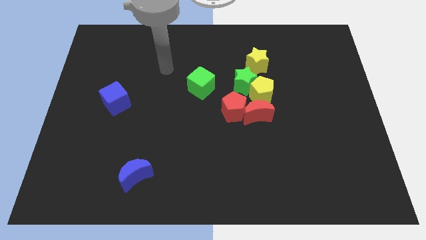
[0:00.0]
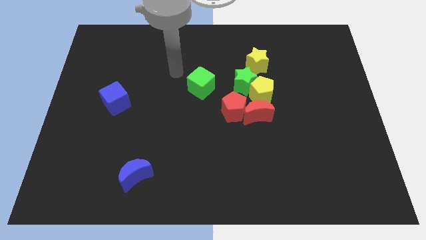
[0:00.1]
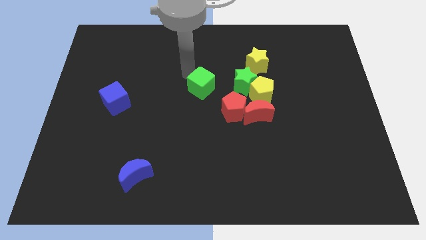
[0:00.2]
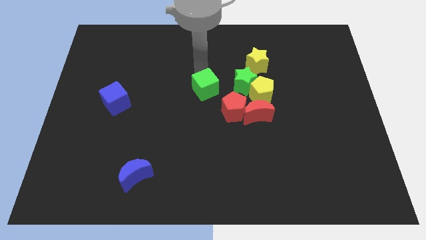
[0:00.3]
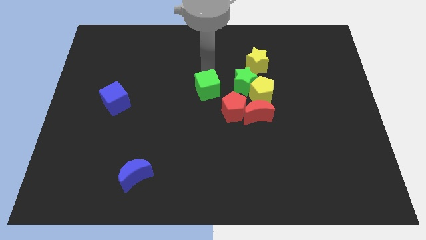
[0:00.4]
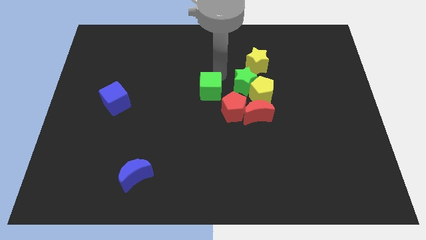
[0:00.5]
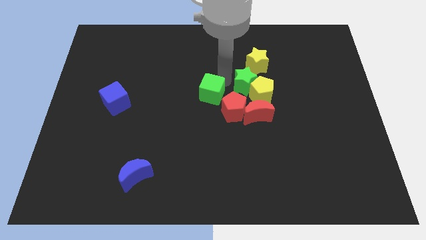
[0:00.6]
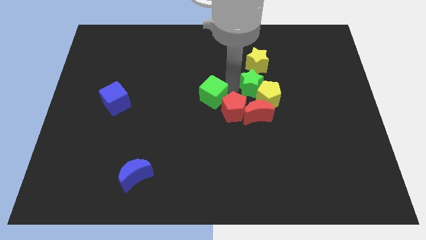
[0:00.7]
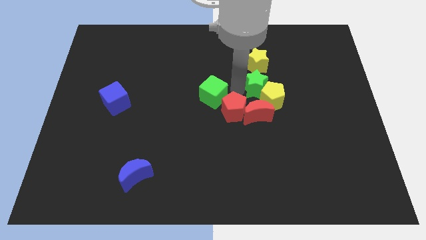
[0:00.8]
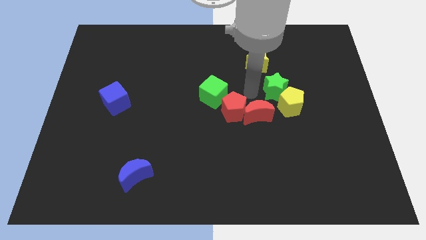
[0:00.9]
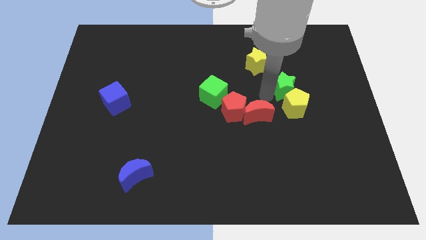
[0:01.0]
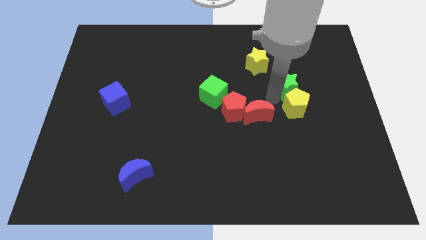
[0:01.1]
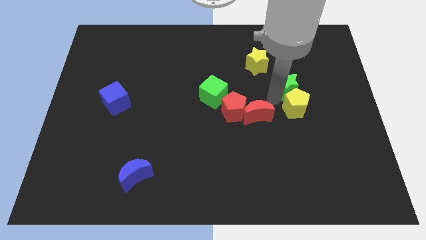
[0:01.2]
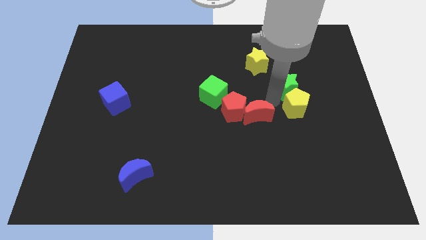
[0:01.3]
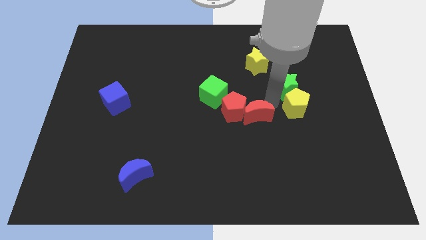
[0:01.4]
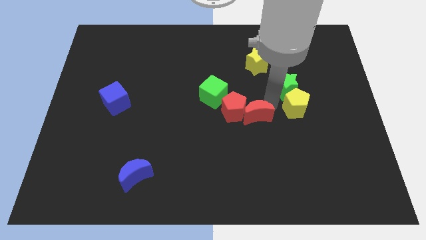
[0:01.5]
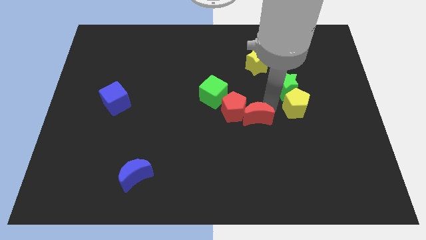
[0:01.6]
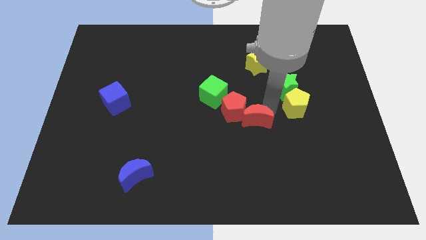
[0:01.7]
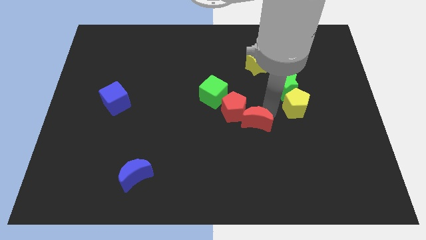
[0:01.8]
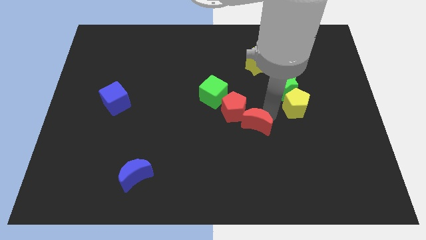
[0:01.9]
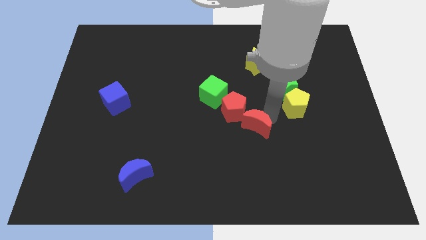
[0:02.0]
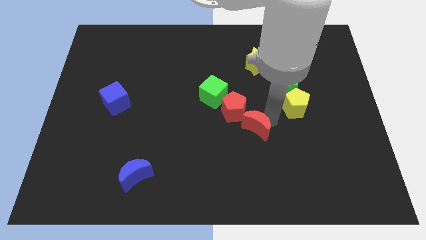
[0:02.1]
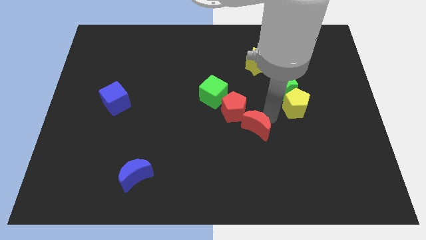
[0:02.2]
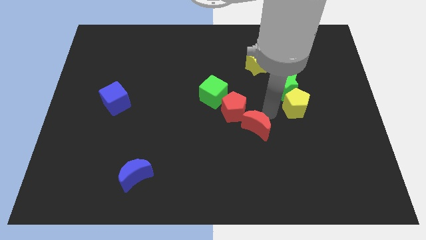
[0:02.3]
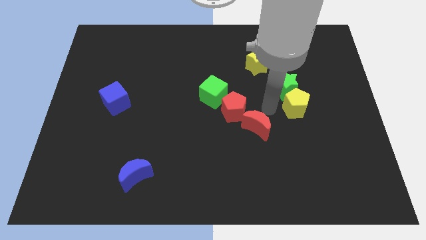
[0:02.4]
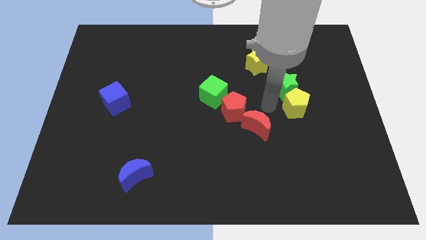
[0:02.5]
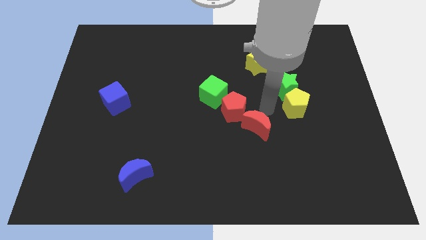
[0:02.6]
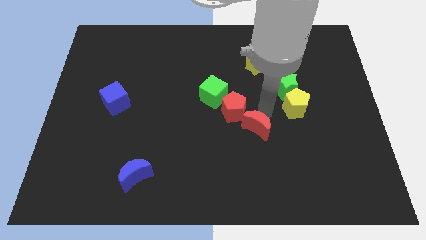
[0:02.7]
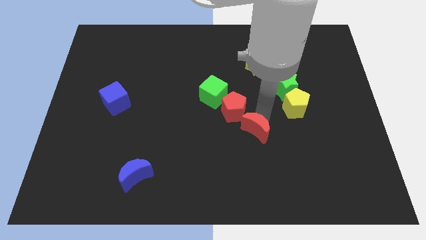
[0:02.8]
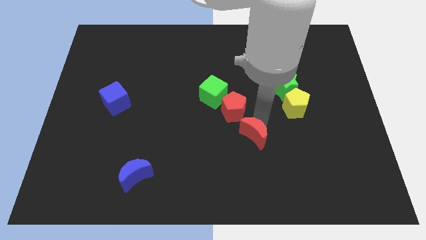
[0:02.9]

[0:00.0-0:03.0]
separate the red moon from the clump

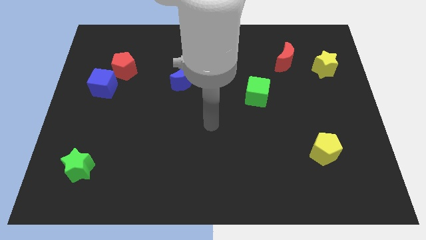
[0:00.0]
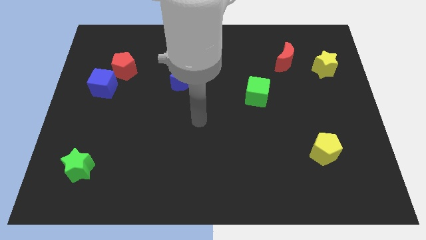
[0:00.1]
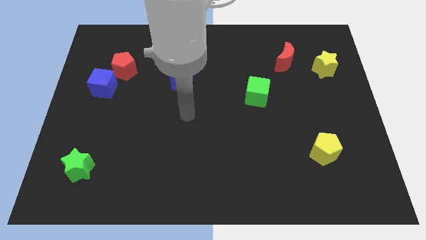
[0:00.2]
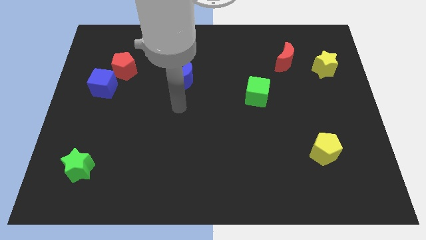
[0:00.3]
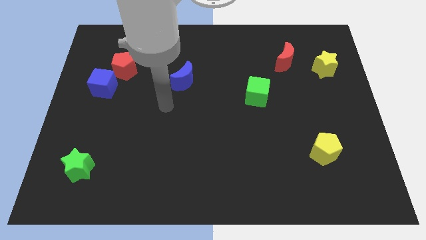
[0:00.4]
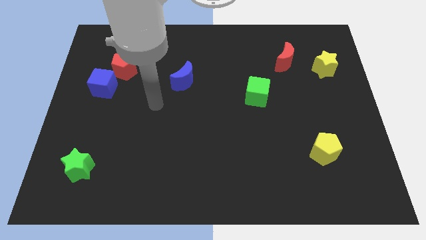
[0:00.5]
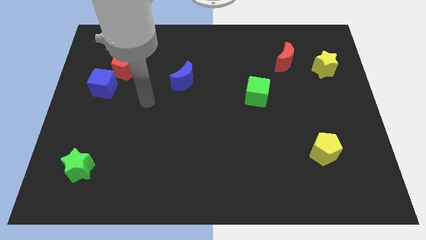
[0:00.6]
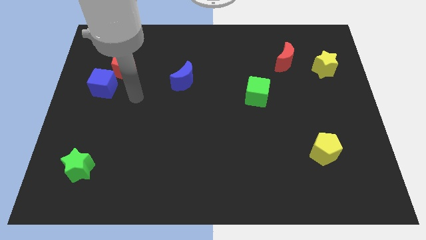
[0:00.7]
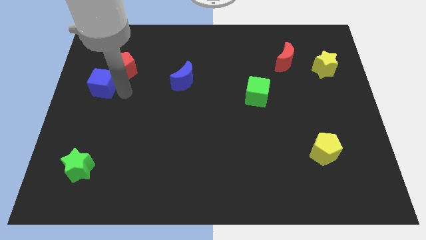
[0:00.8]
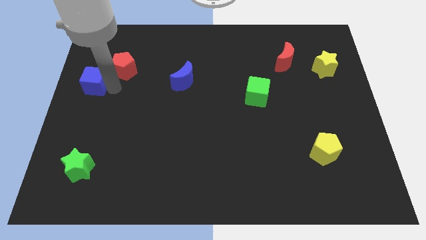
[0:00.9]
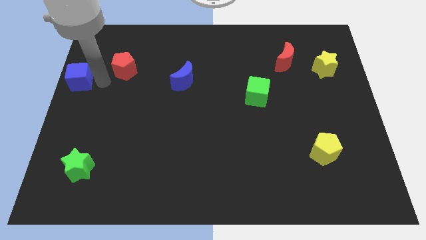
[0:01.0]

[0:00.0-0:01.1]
separate the red pentagon from the blue cube

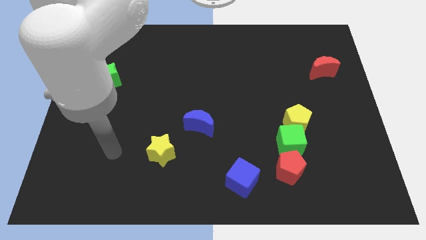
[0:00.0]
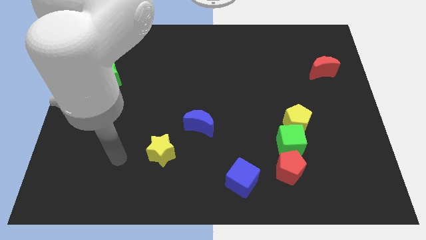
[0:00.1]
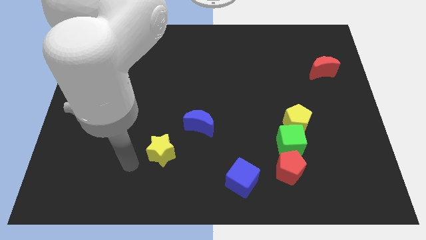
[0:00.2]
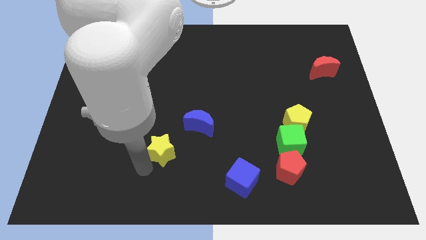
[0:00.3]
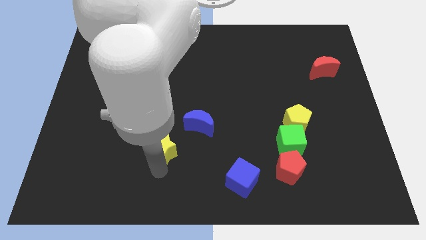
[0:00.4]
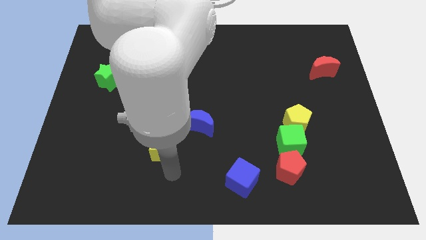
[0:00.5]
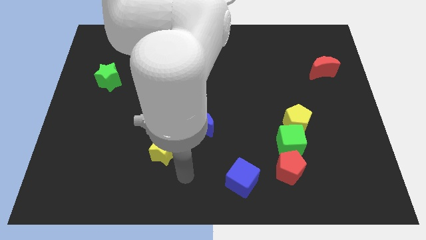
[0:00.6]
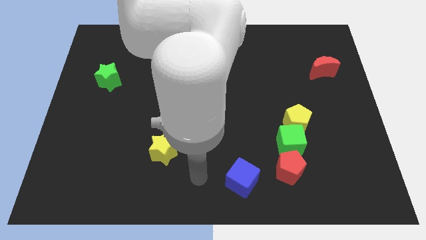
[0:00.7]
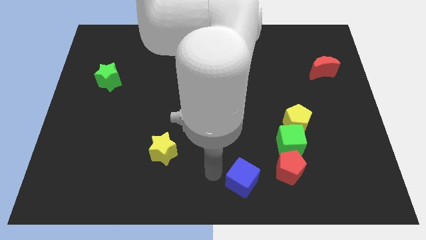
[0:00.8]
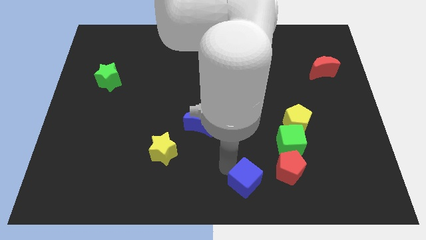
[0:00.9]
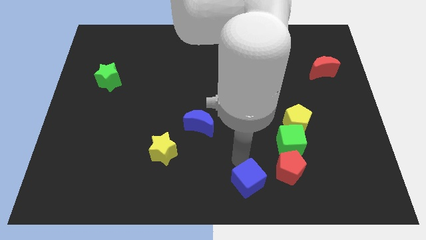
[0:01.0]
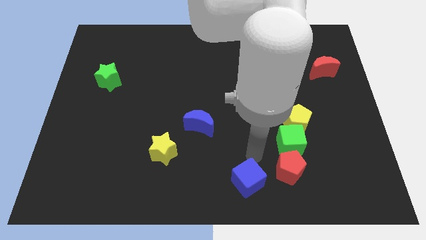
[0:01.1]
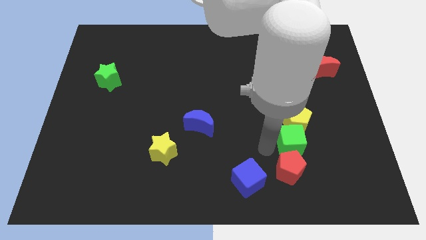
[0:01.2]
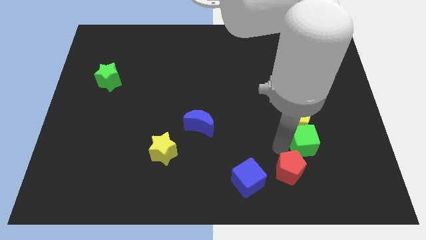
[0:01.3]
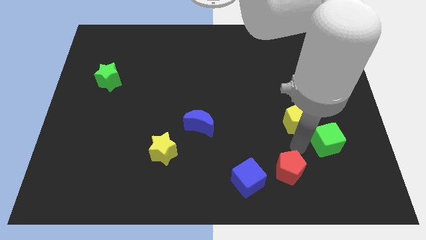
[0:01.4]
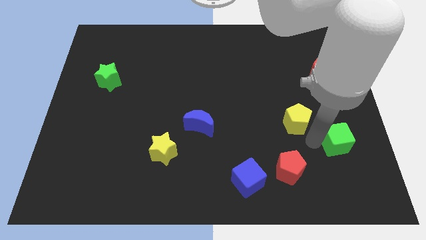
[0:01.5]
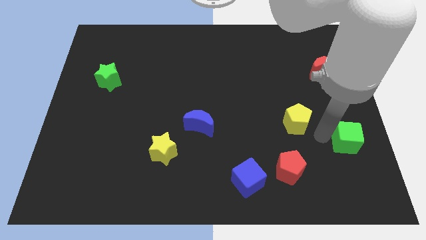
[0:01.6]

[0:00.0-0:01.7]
separate the yellow pentagon from the green cube

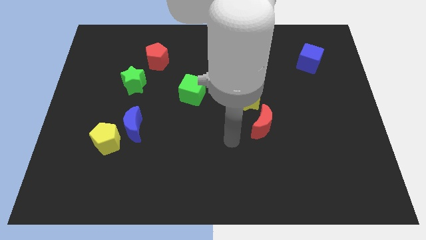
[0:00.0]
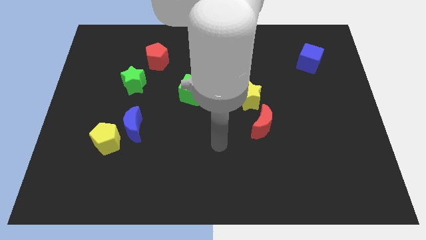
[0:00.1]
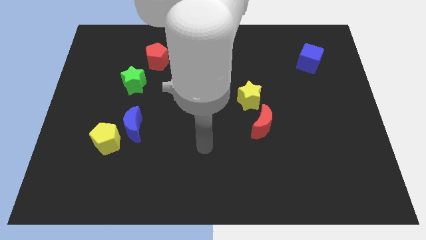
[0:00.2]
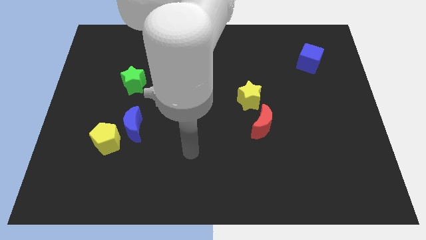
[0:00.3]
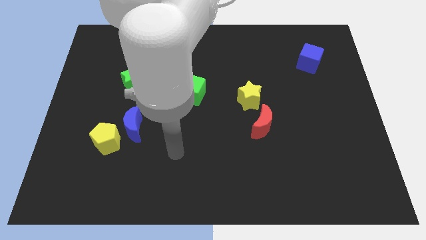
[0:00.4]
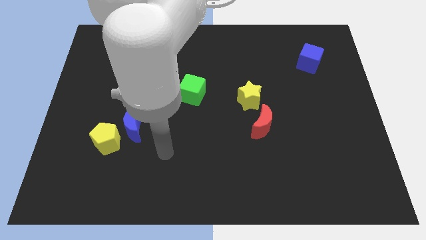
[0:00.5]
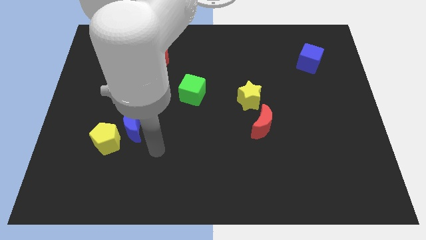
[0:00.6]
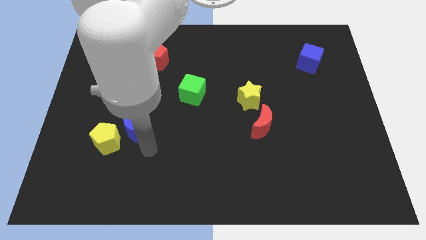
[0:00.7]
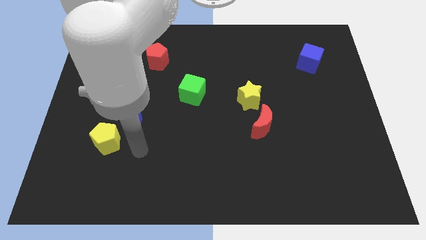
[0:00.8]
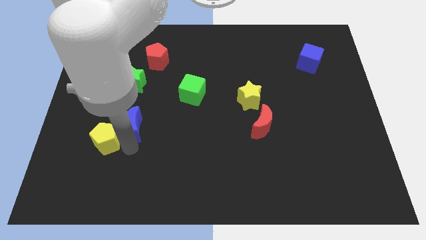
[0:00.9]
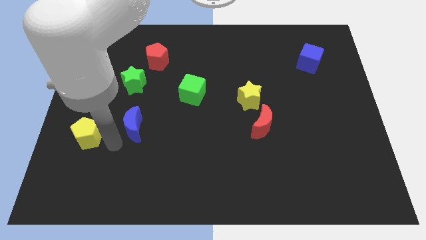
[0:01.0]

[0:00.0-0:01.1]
move the blue moon away from the yellow pentagon

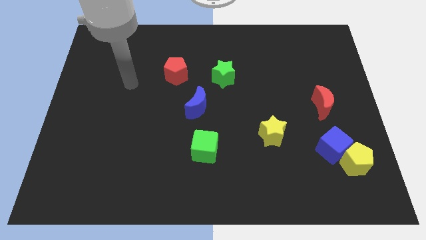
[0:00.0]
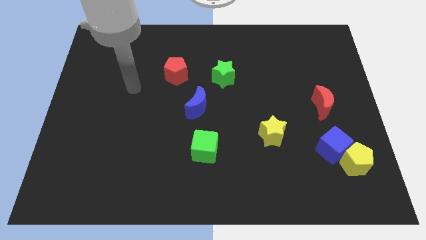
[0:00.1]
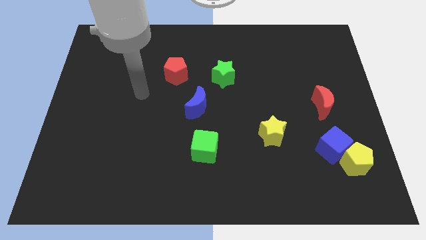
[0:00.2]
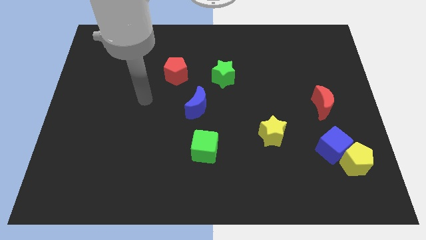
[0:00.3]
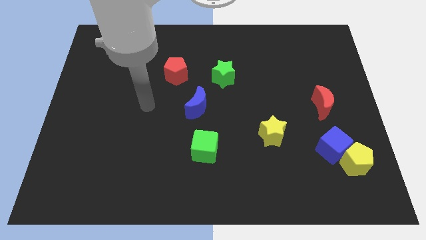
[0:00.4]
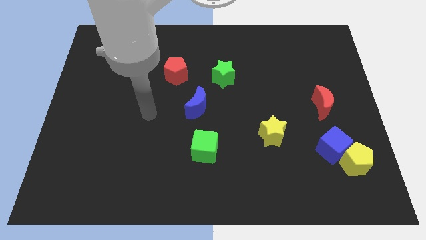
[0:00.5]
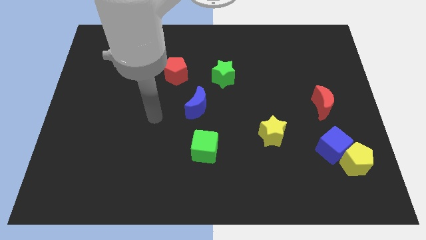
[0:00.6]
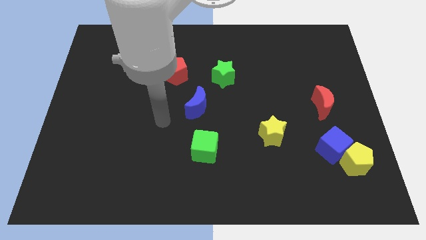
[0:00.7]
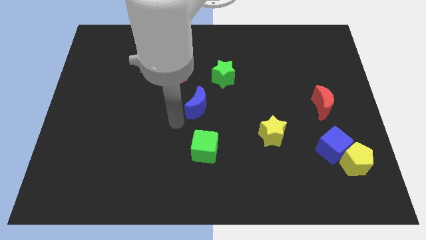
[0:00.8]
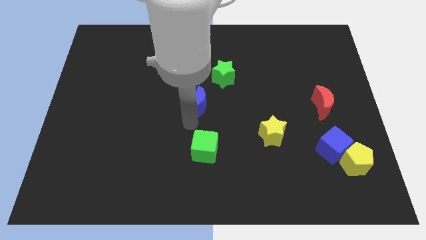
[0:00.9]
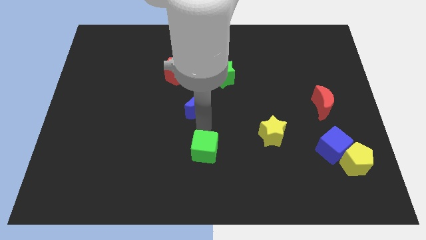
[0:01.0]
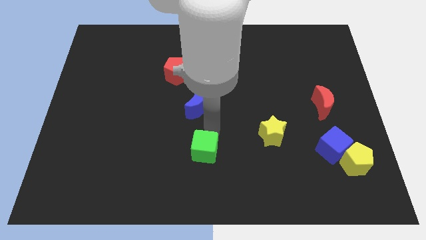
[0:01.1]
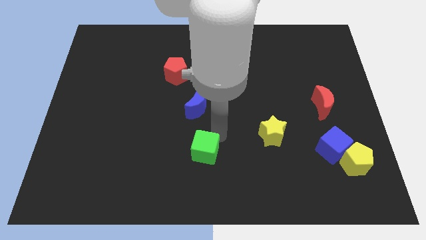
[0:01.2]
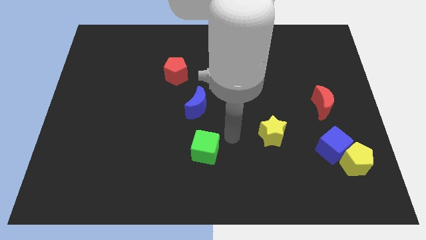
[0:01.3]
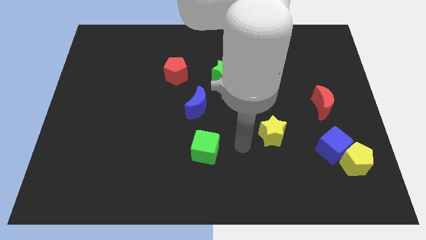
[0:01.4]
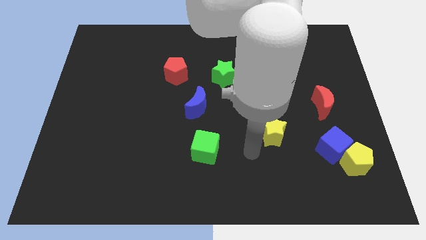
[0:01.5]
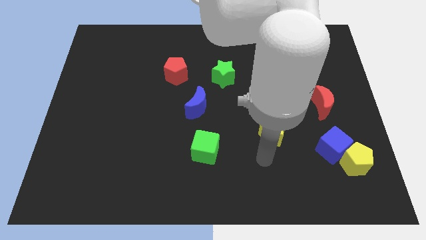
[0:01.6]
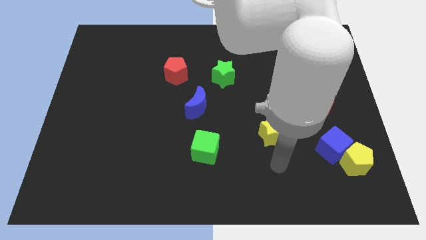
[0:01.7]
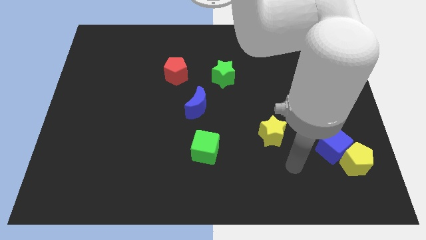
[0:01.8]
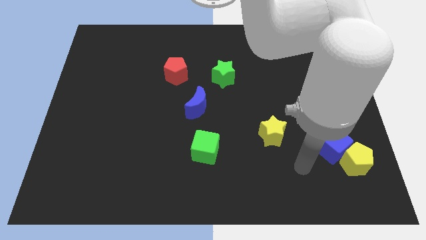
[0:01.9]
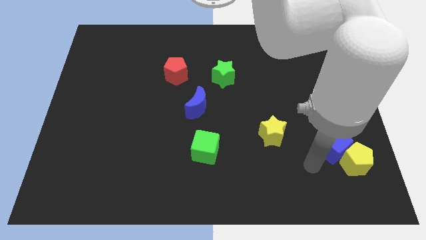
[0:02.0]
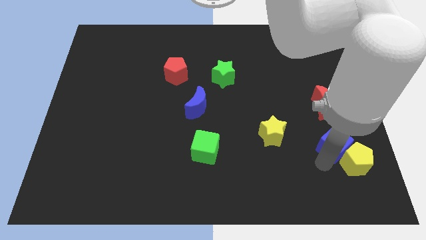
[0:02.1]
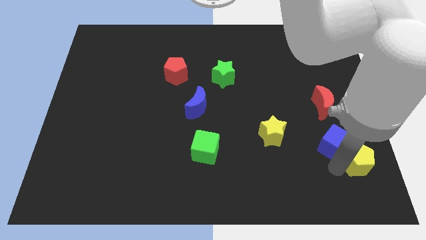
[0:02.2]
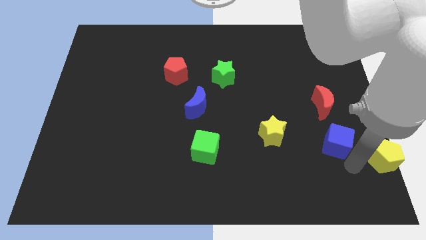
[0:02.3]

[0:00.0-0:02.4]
move the blue cube away from the yellow pentagon

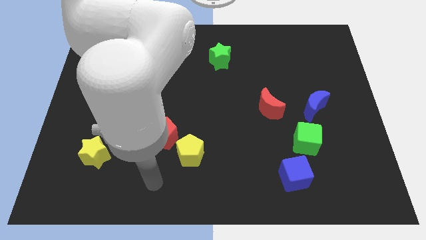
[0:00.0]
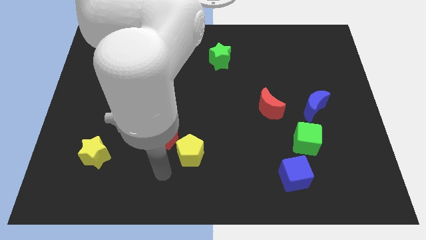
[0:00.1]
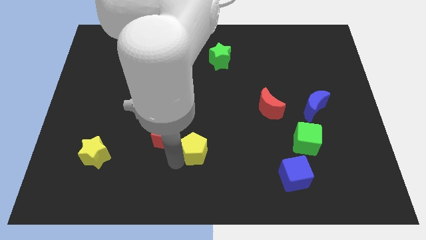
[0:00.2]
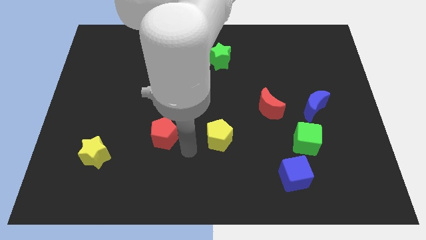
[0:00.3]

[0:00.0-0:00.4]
separate the red pentagon from the yellow pentagon
